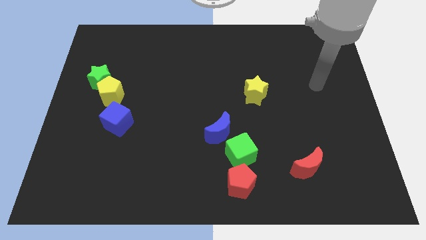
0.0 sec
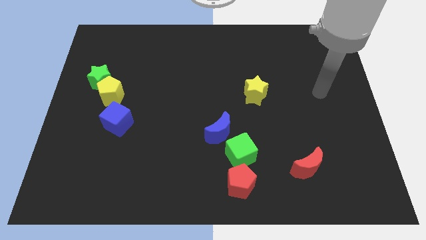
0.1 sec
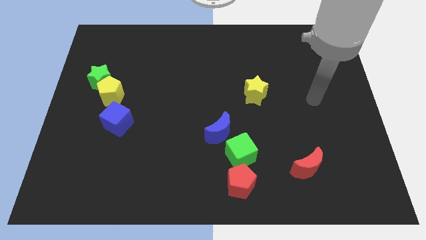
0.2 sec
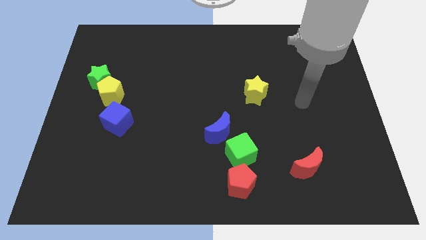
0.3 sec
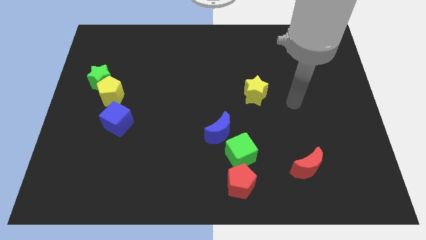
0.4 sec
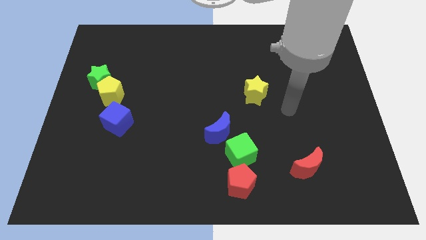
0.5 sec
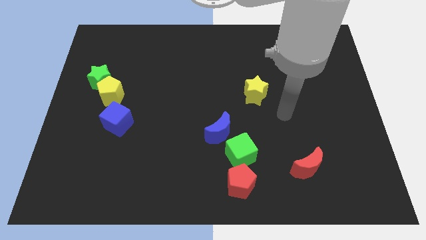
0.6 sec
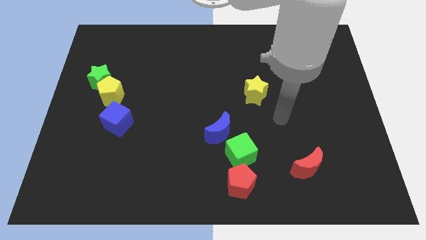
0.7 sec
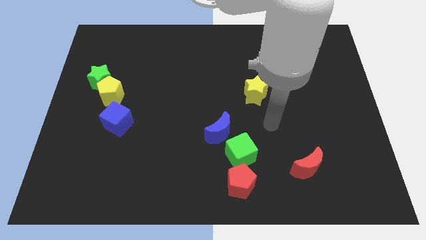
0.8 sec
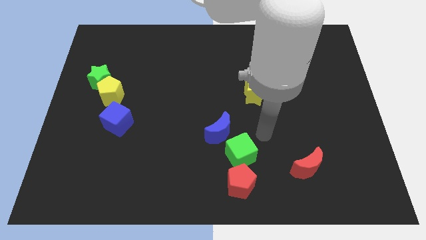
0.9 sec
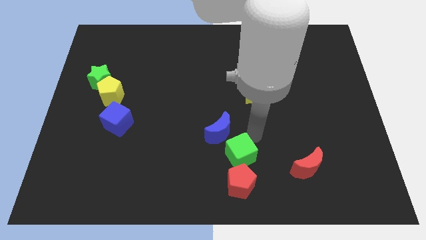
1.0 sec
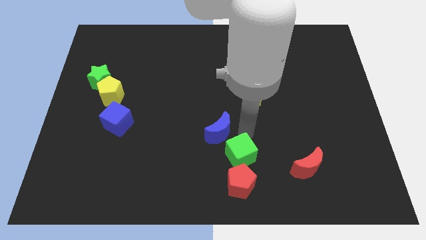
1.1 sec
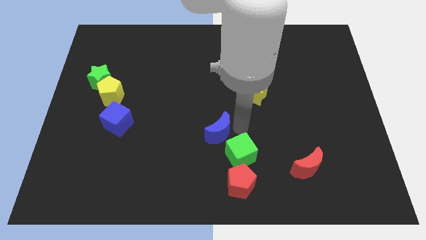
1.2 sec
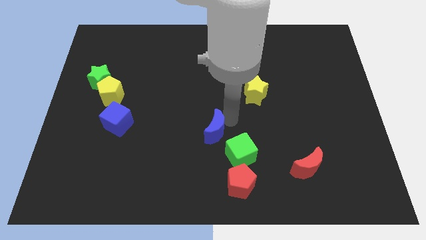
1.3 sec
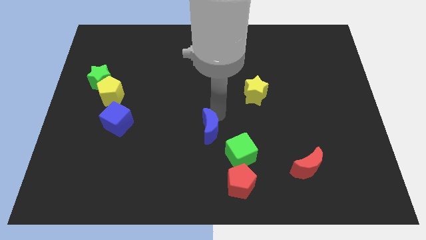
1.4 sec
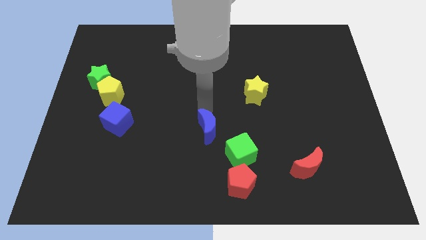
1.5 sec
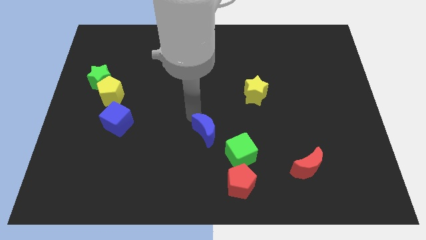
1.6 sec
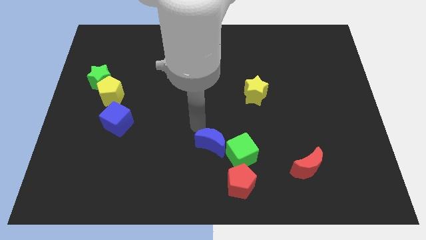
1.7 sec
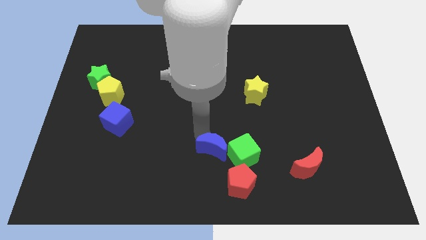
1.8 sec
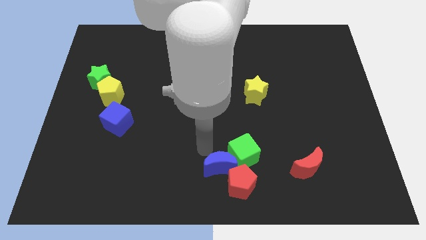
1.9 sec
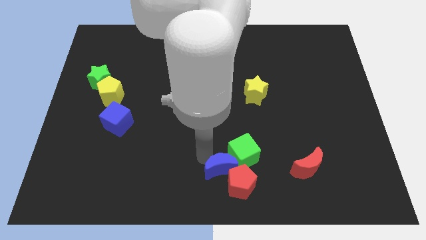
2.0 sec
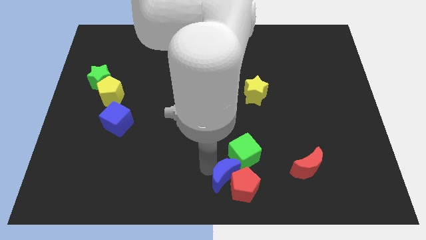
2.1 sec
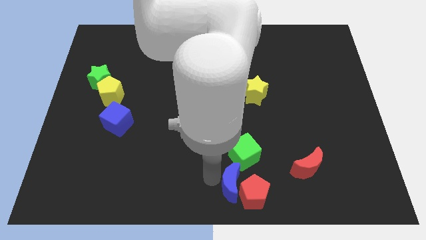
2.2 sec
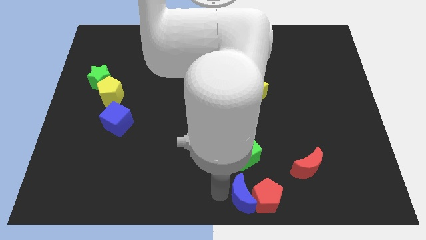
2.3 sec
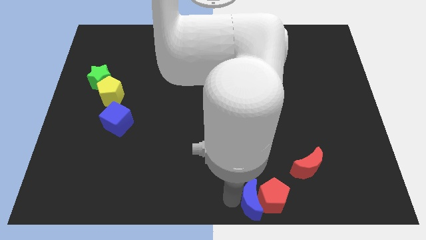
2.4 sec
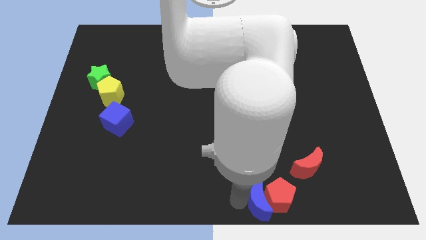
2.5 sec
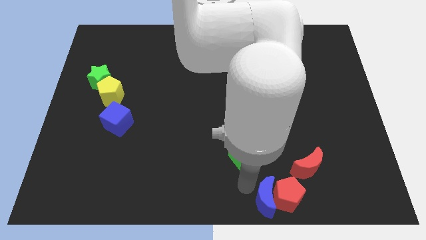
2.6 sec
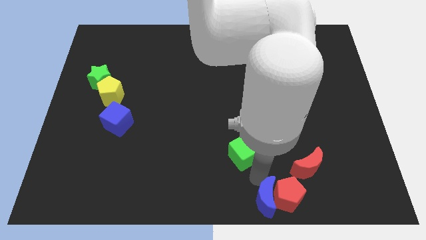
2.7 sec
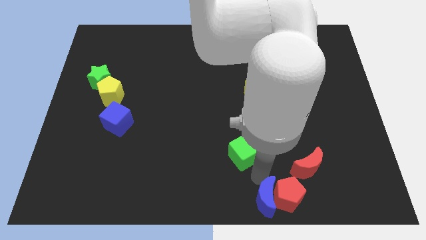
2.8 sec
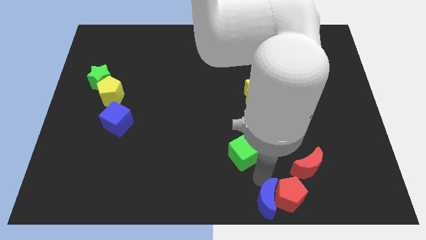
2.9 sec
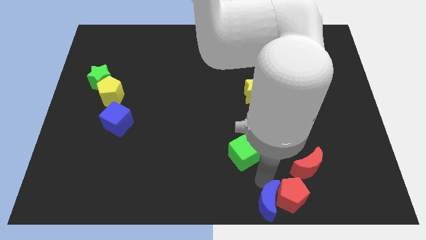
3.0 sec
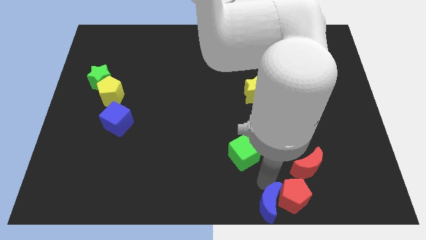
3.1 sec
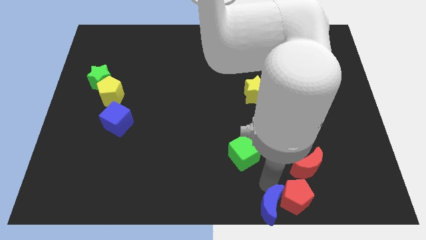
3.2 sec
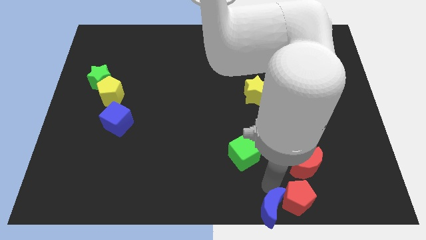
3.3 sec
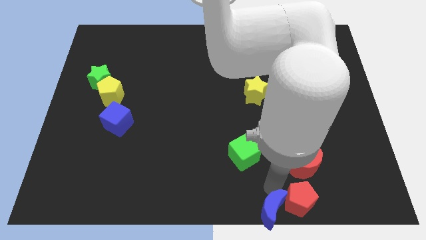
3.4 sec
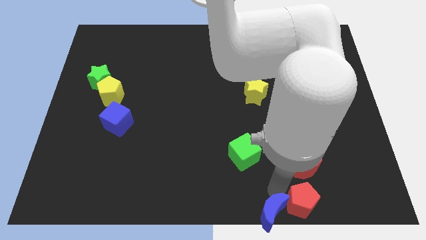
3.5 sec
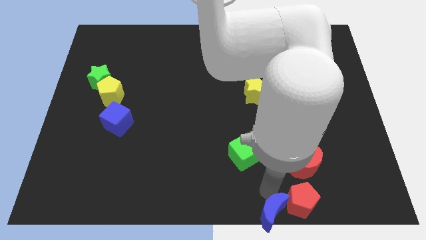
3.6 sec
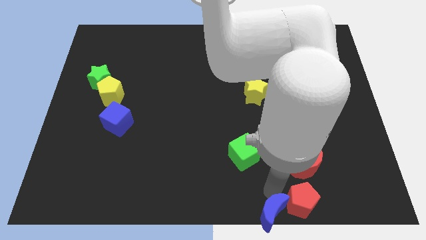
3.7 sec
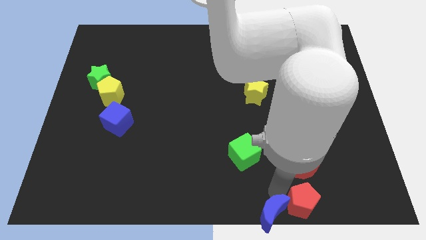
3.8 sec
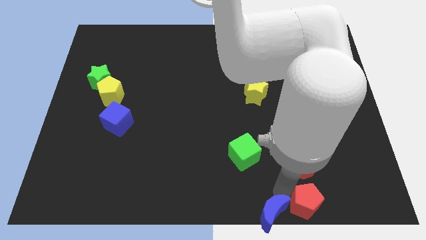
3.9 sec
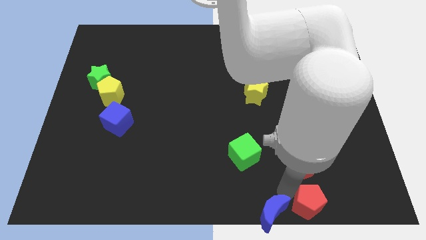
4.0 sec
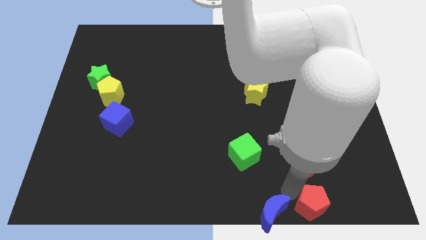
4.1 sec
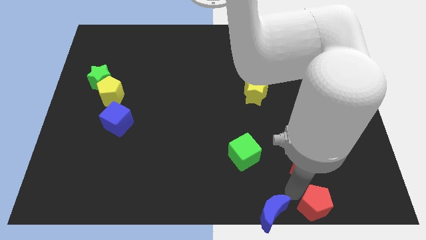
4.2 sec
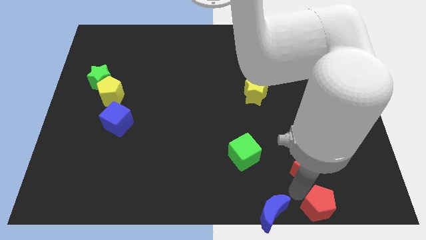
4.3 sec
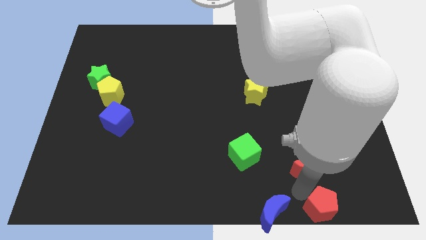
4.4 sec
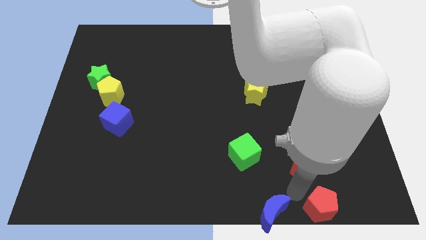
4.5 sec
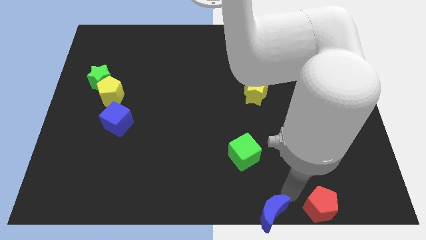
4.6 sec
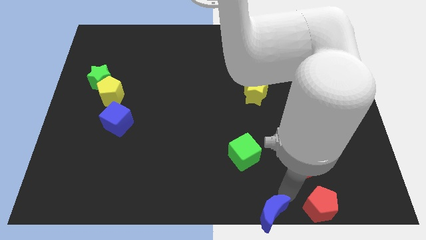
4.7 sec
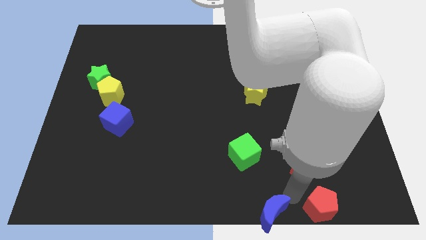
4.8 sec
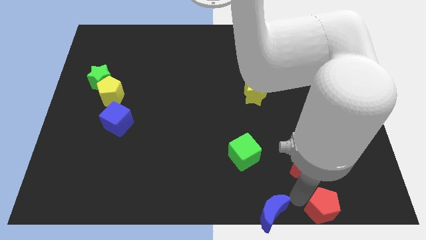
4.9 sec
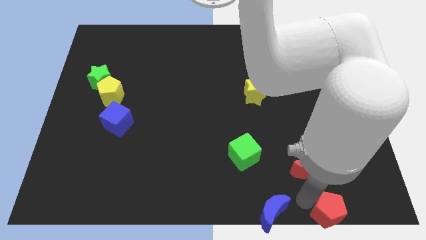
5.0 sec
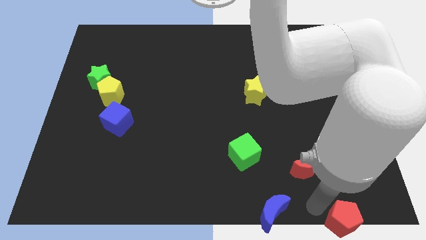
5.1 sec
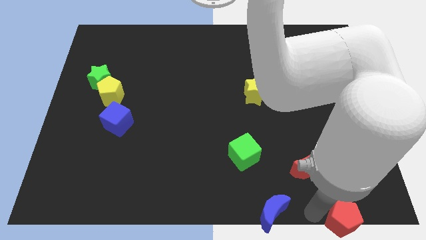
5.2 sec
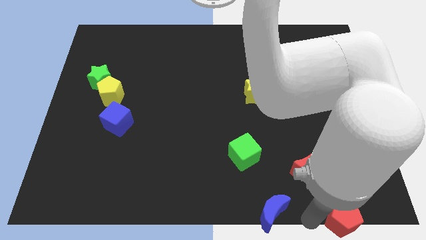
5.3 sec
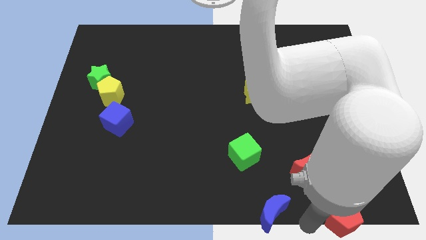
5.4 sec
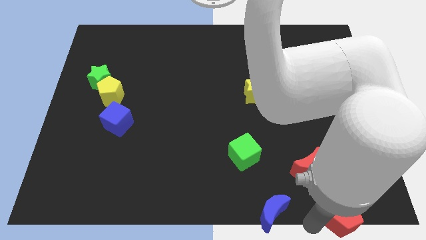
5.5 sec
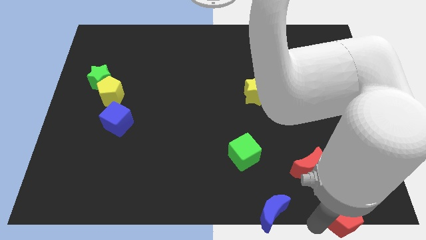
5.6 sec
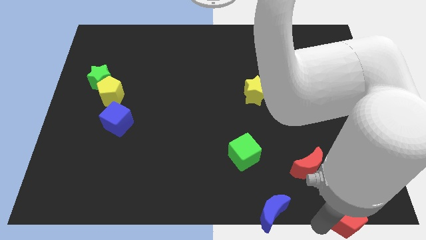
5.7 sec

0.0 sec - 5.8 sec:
move the red pentagon to the lower right corner
